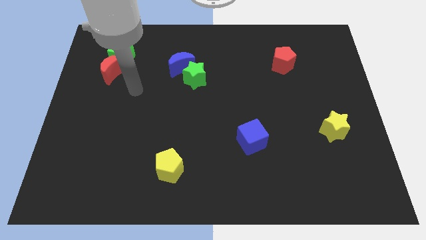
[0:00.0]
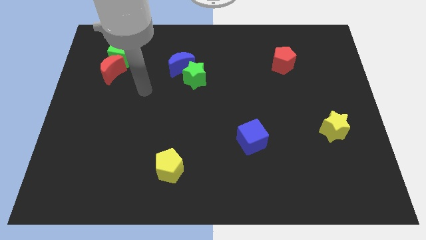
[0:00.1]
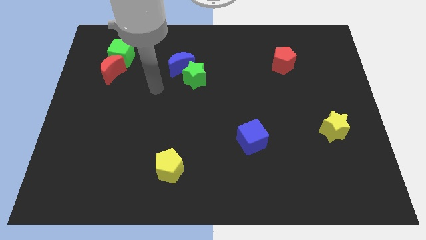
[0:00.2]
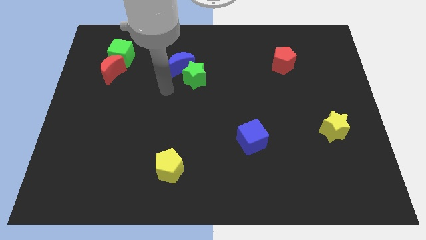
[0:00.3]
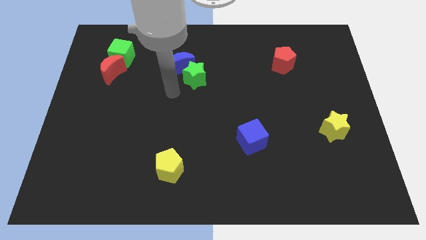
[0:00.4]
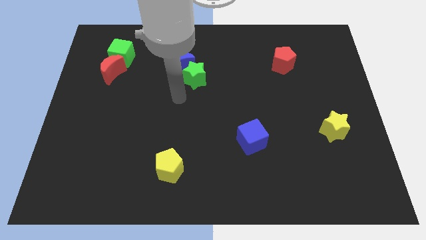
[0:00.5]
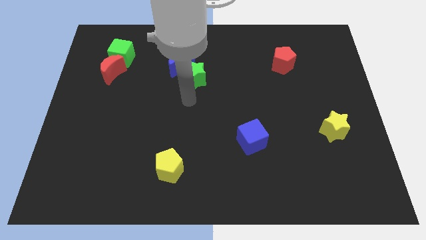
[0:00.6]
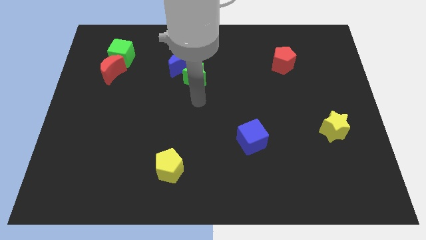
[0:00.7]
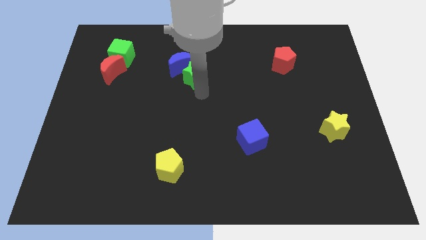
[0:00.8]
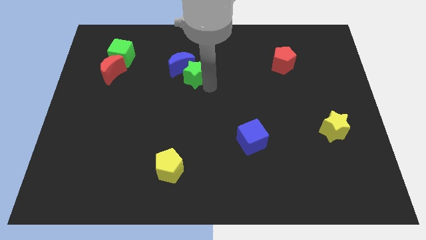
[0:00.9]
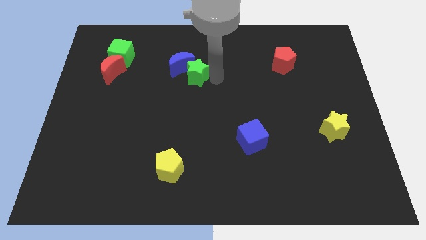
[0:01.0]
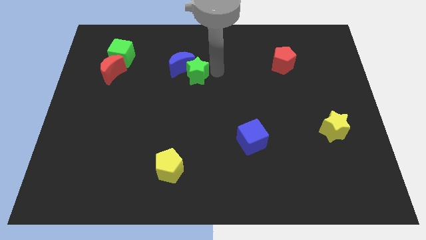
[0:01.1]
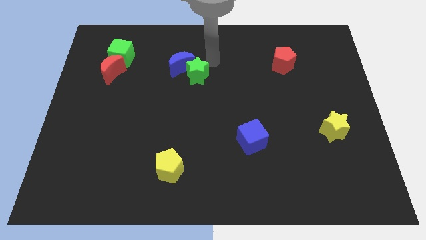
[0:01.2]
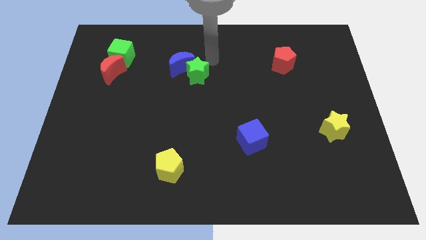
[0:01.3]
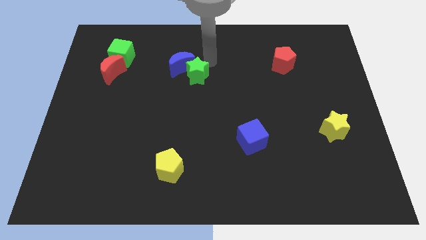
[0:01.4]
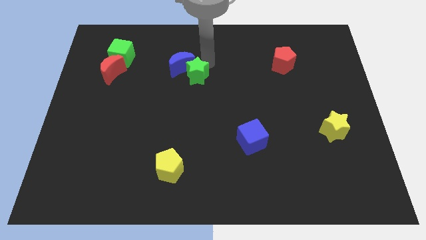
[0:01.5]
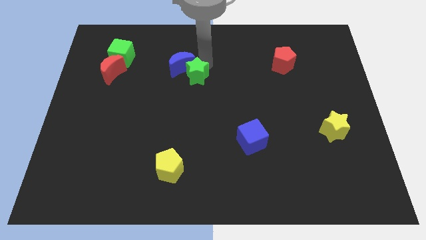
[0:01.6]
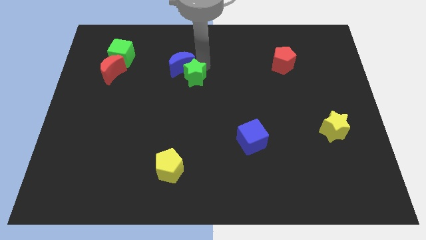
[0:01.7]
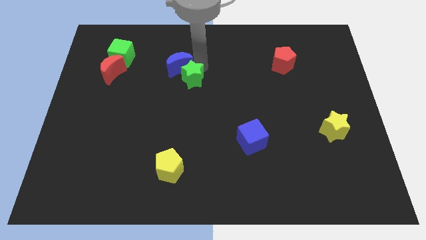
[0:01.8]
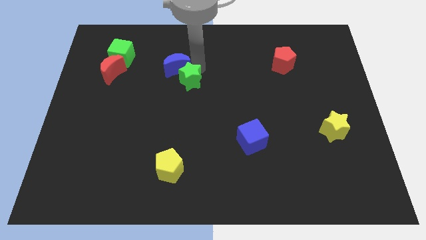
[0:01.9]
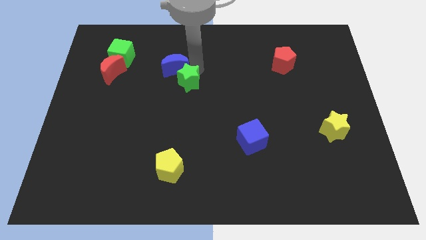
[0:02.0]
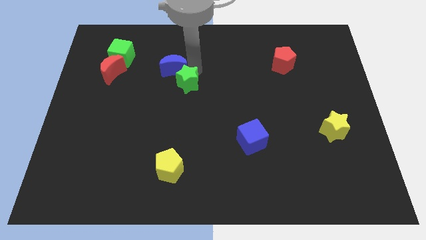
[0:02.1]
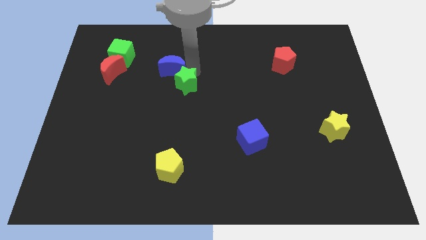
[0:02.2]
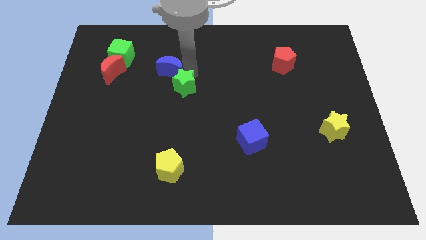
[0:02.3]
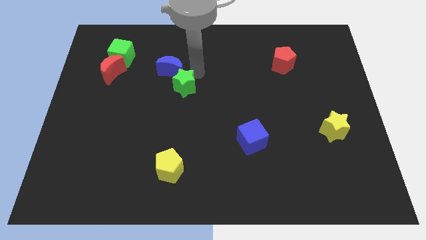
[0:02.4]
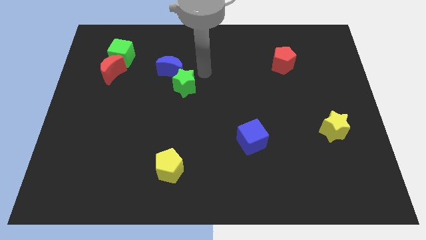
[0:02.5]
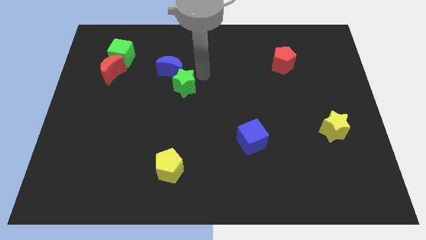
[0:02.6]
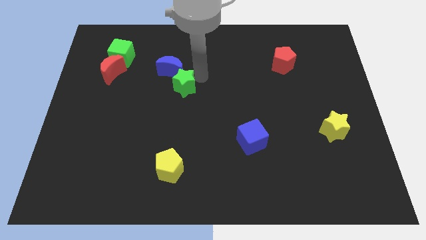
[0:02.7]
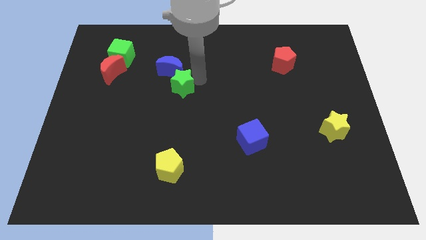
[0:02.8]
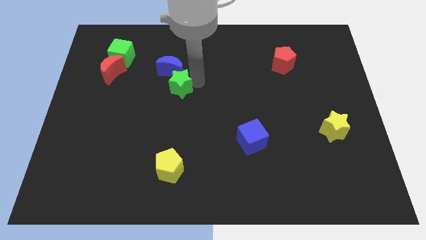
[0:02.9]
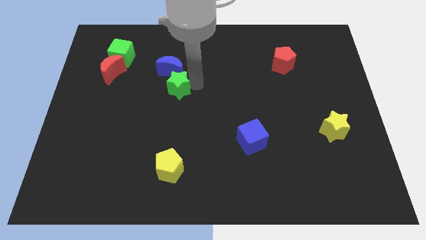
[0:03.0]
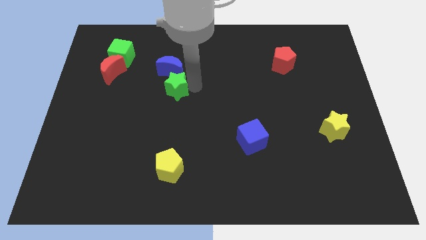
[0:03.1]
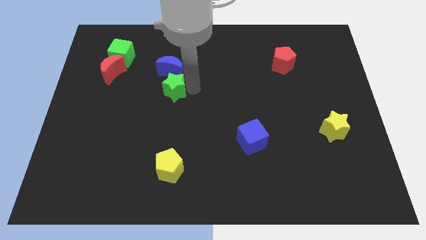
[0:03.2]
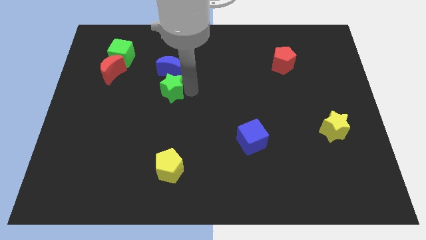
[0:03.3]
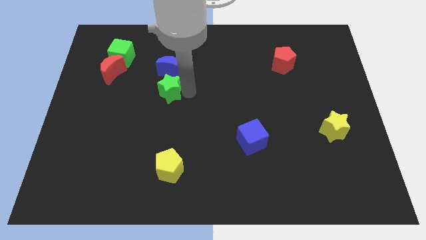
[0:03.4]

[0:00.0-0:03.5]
slide the green star downwards and to the left slightly

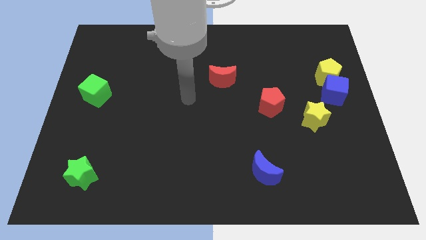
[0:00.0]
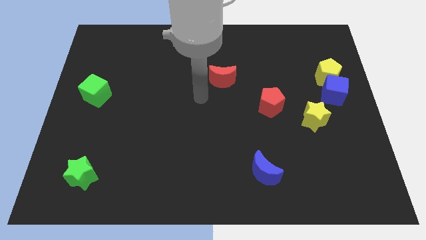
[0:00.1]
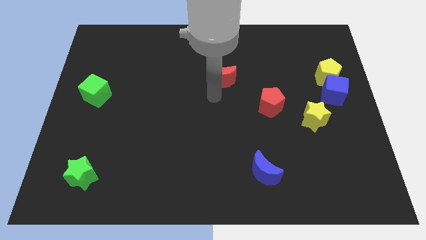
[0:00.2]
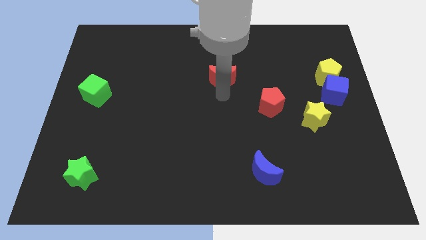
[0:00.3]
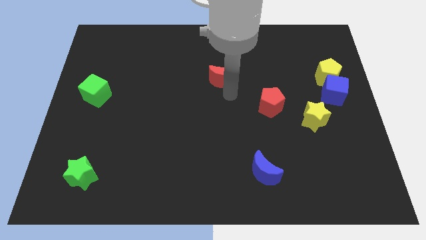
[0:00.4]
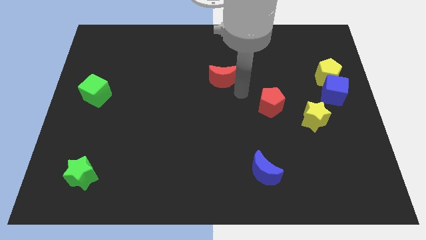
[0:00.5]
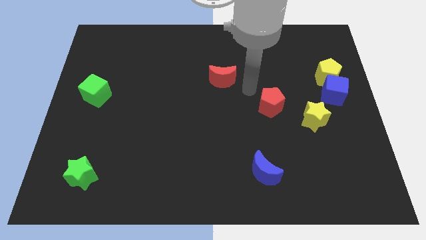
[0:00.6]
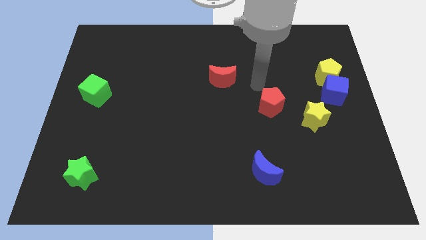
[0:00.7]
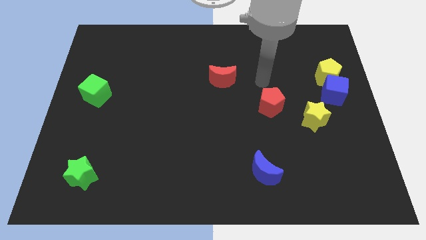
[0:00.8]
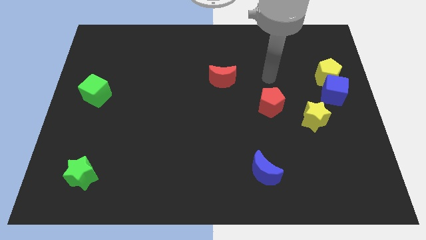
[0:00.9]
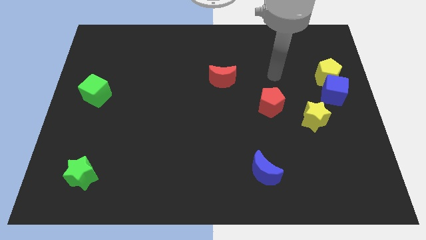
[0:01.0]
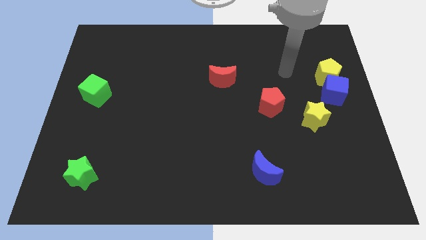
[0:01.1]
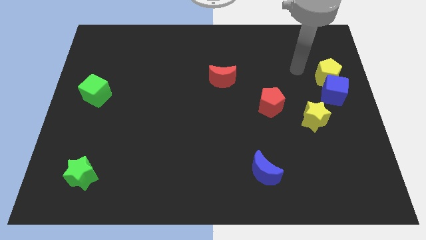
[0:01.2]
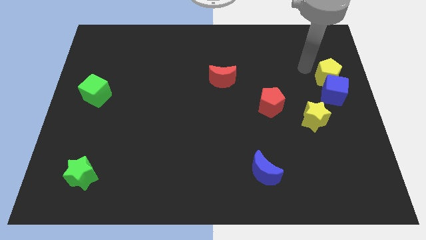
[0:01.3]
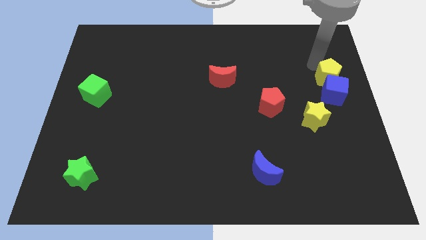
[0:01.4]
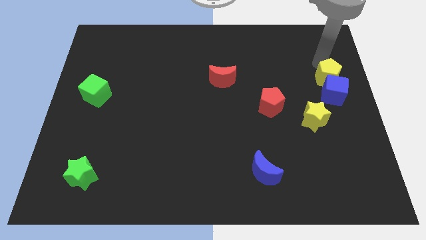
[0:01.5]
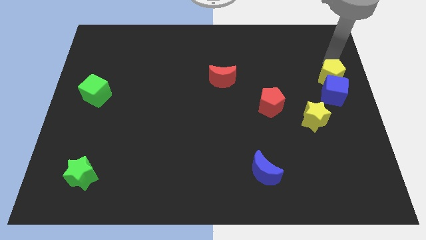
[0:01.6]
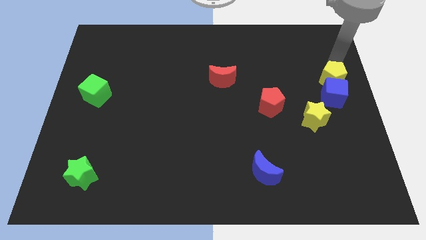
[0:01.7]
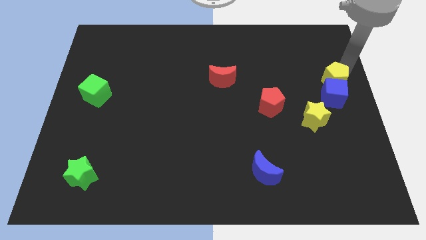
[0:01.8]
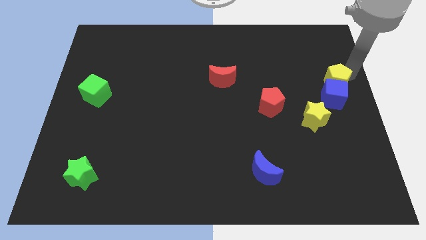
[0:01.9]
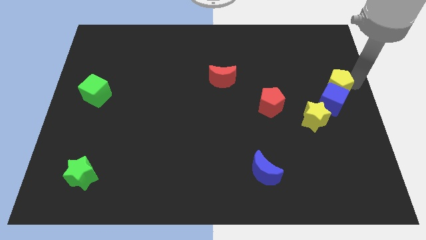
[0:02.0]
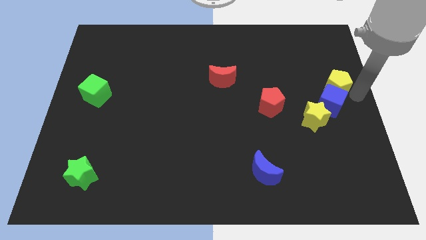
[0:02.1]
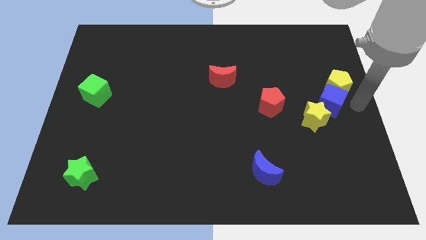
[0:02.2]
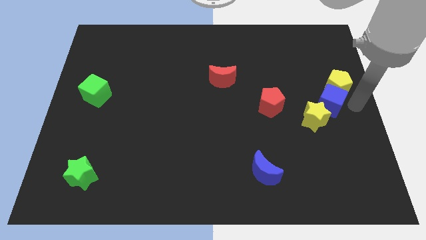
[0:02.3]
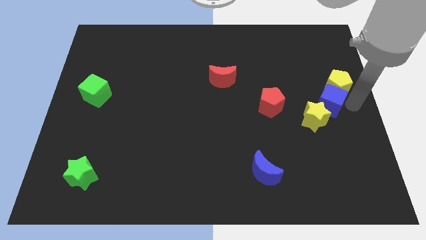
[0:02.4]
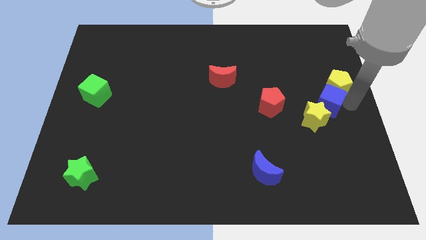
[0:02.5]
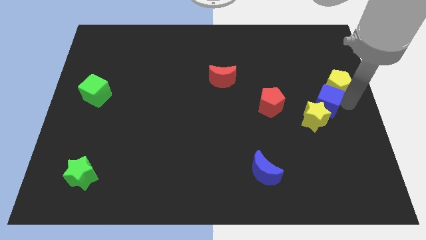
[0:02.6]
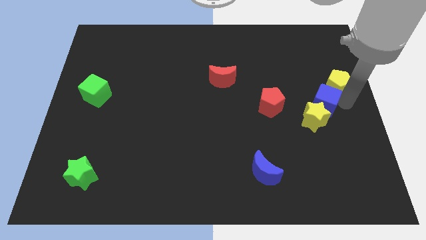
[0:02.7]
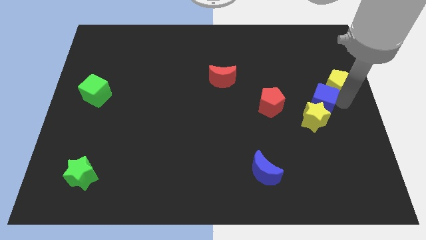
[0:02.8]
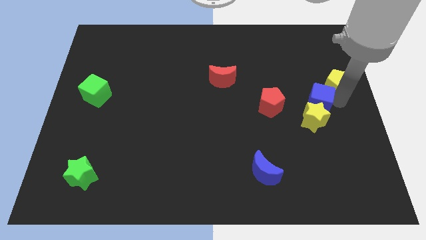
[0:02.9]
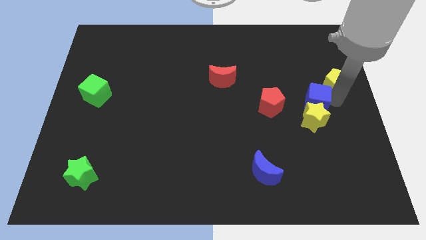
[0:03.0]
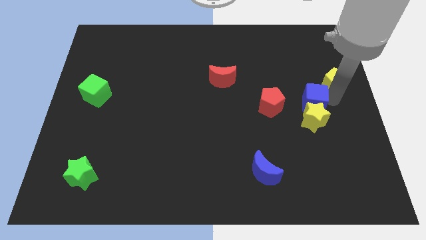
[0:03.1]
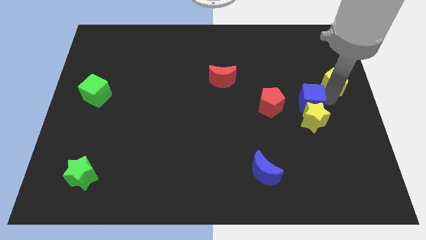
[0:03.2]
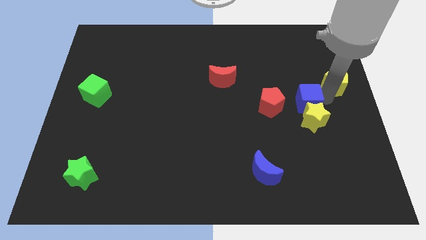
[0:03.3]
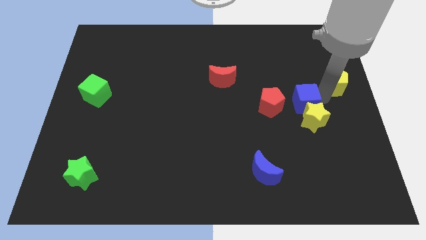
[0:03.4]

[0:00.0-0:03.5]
slightly move the blue cube down and then left

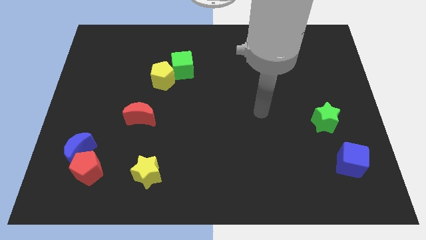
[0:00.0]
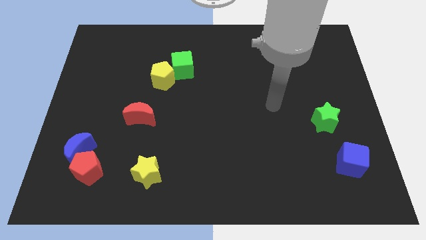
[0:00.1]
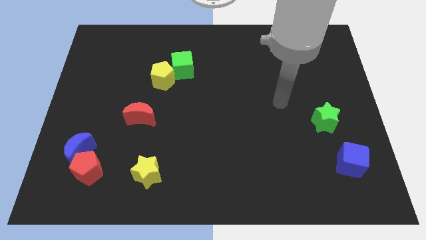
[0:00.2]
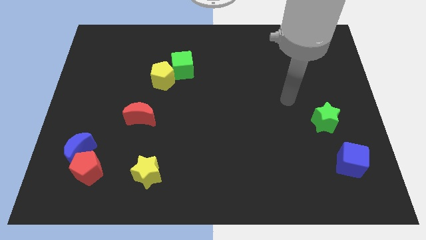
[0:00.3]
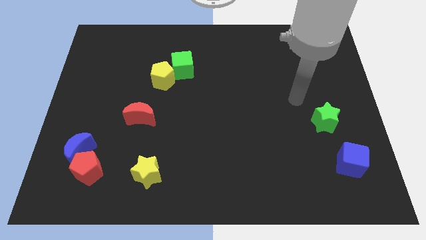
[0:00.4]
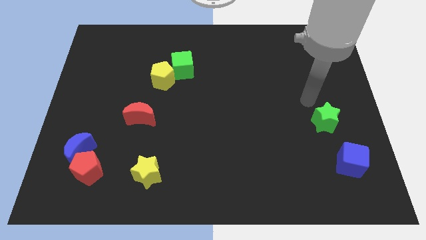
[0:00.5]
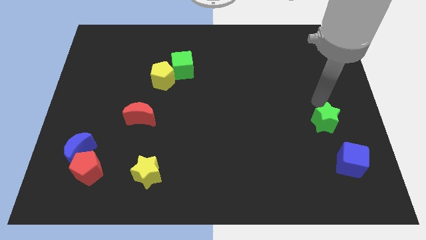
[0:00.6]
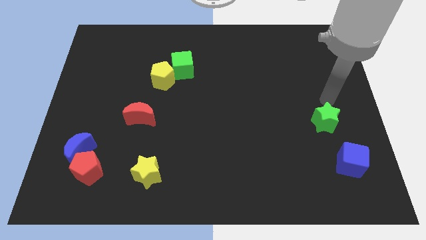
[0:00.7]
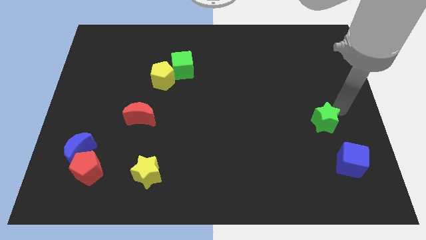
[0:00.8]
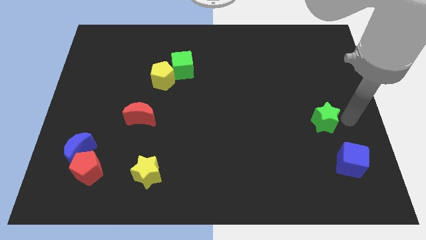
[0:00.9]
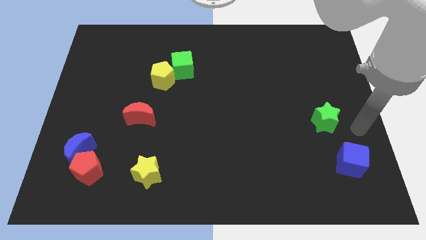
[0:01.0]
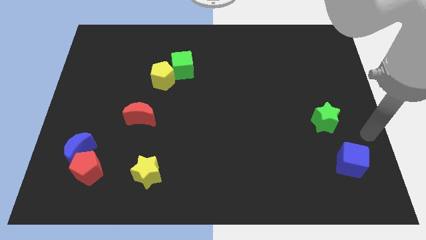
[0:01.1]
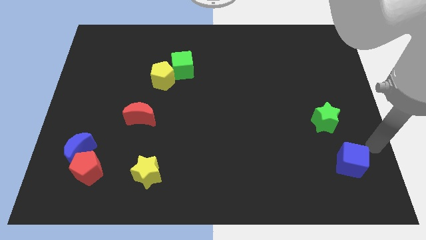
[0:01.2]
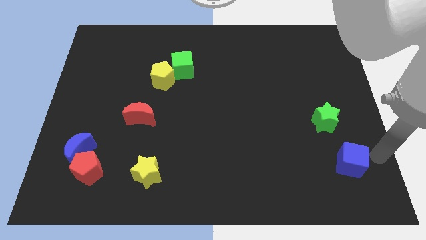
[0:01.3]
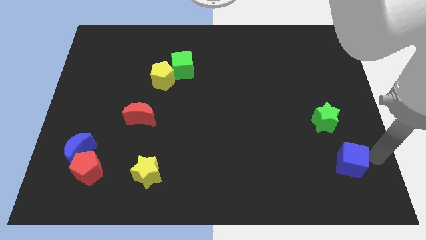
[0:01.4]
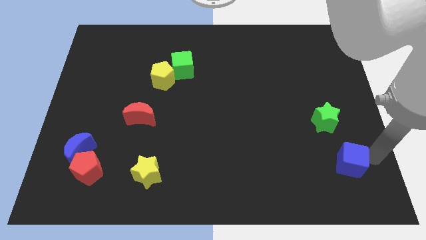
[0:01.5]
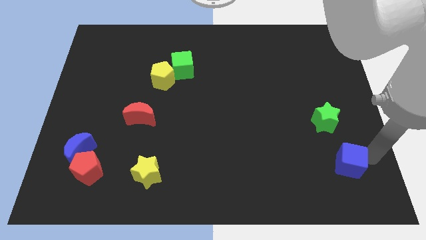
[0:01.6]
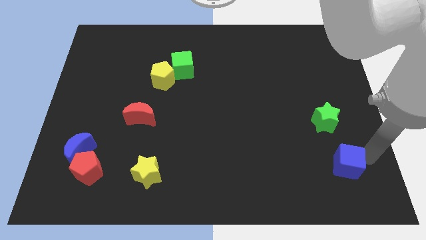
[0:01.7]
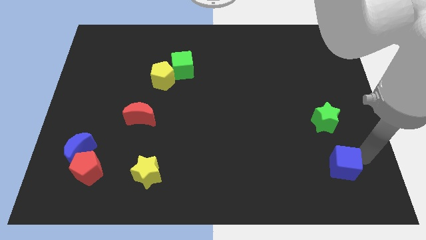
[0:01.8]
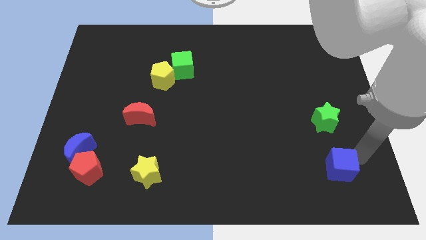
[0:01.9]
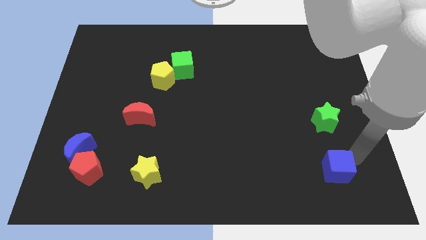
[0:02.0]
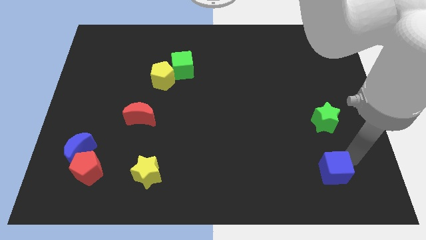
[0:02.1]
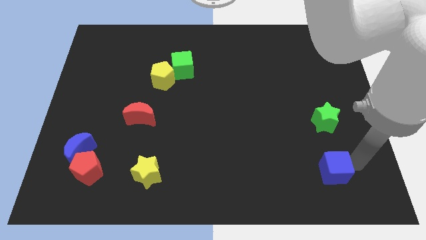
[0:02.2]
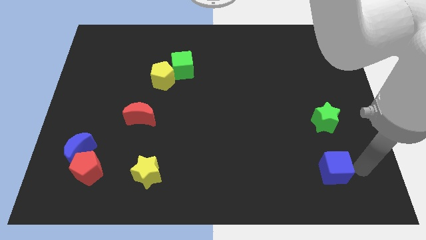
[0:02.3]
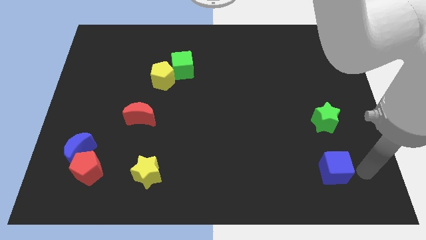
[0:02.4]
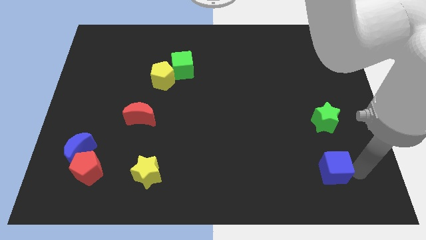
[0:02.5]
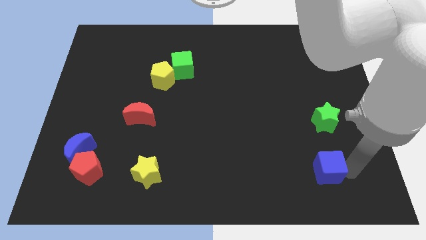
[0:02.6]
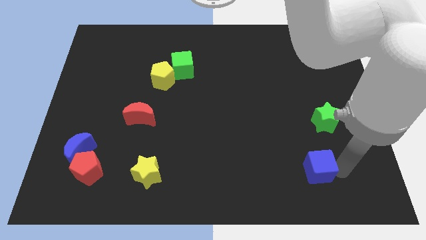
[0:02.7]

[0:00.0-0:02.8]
push the blue cube left a little
